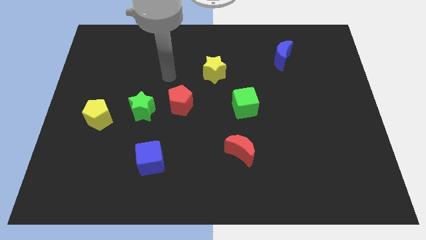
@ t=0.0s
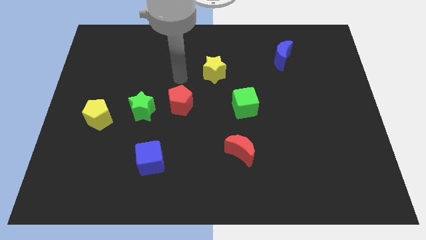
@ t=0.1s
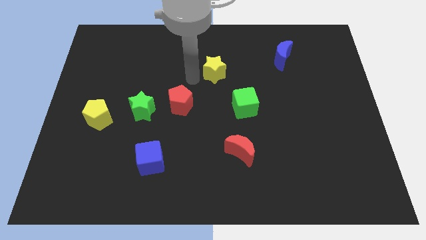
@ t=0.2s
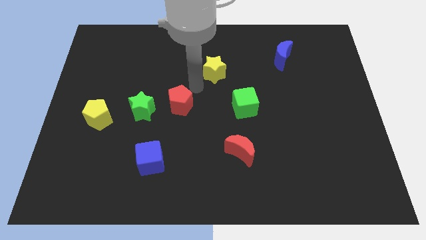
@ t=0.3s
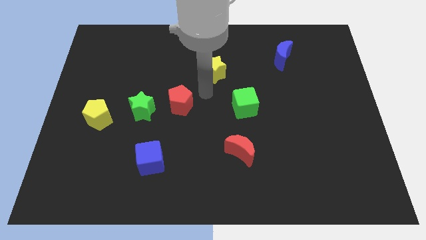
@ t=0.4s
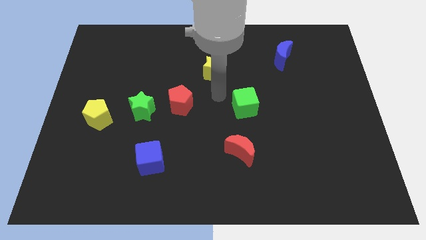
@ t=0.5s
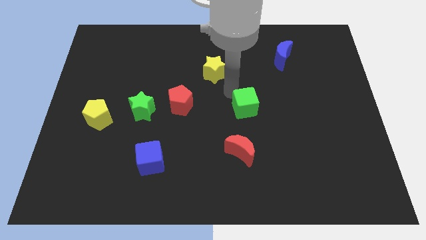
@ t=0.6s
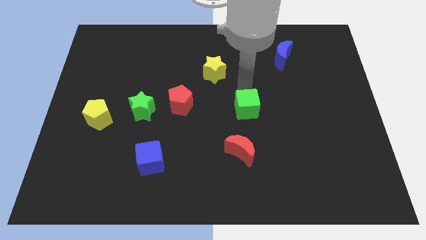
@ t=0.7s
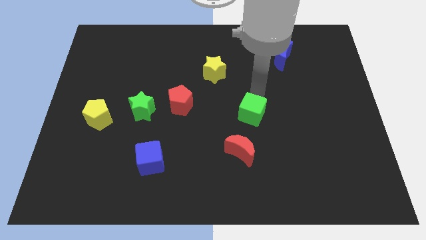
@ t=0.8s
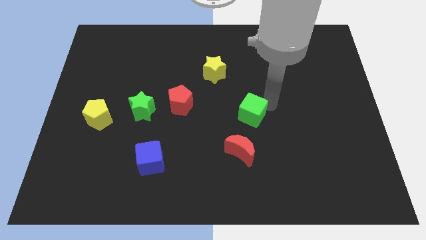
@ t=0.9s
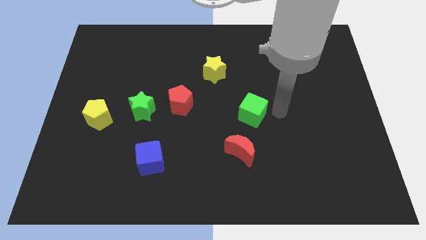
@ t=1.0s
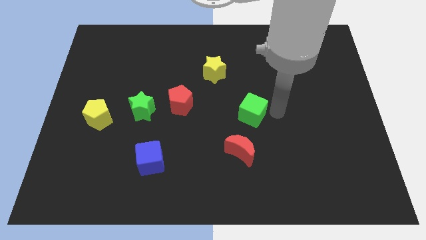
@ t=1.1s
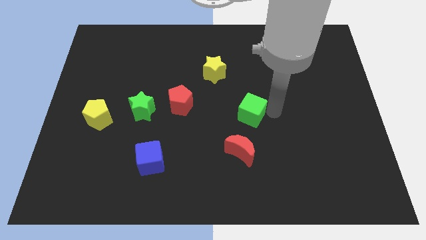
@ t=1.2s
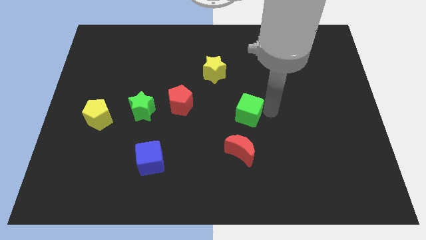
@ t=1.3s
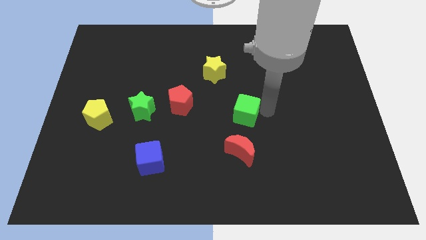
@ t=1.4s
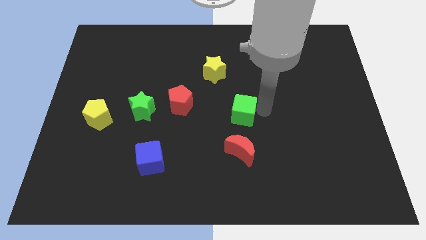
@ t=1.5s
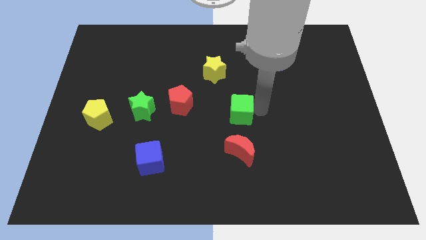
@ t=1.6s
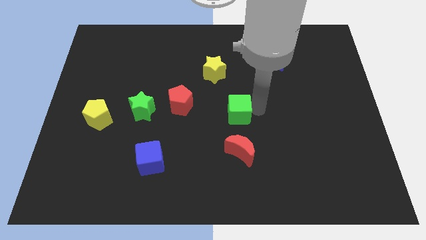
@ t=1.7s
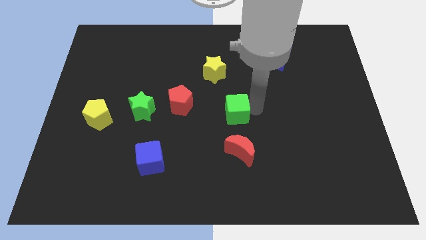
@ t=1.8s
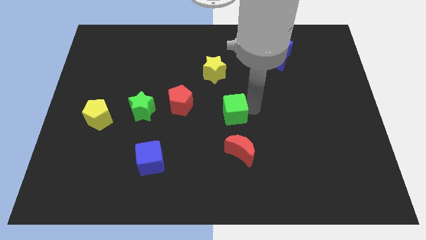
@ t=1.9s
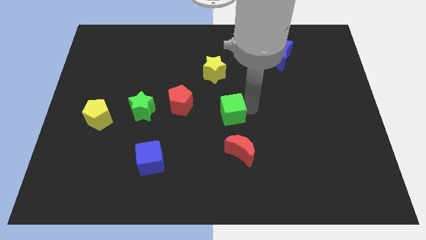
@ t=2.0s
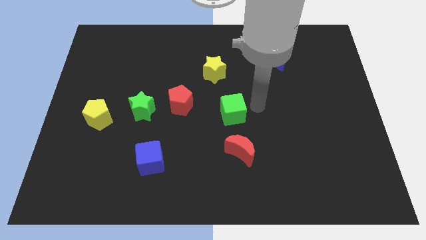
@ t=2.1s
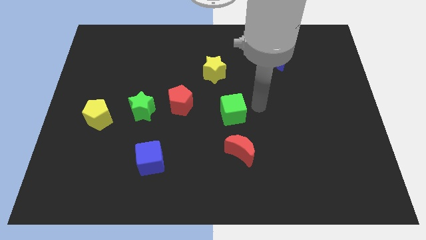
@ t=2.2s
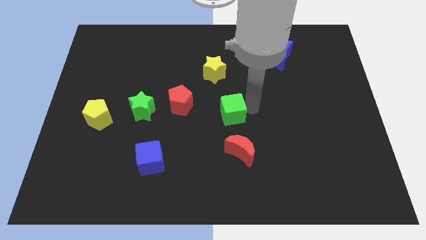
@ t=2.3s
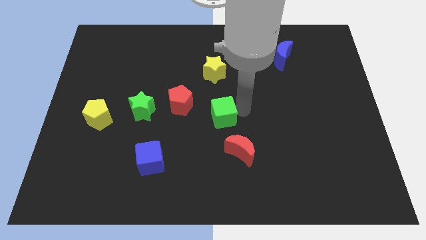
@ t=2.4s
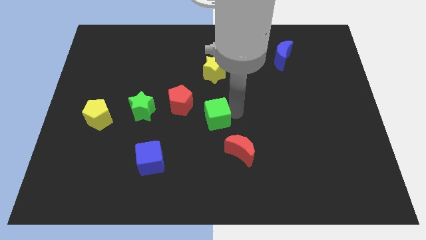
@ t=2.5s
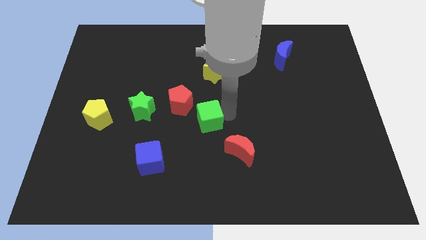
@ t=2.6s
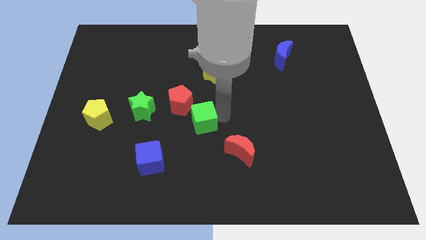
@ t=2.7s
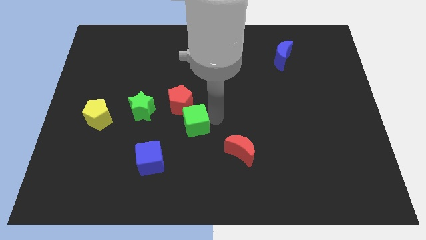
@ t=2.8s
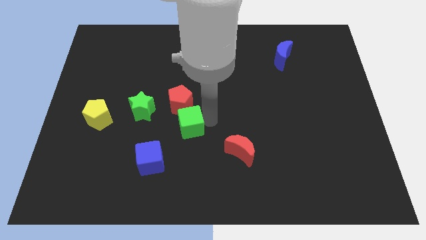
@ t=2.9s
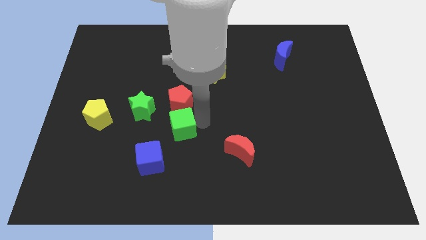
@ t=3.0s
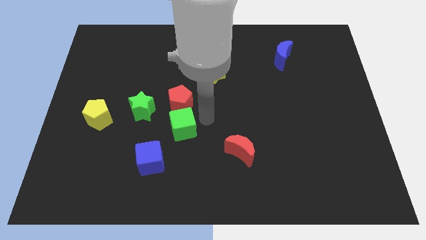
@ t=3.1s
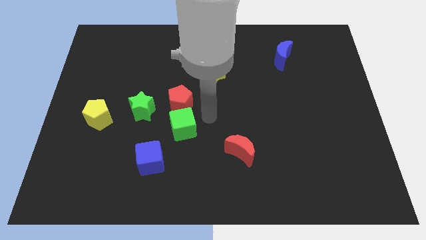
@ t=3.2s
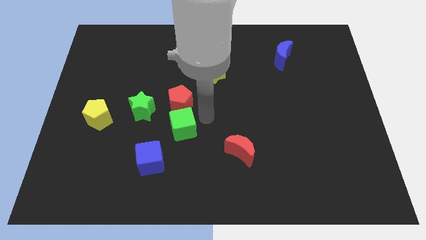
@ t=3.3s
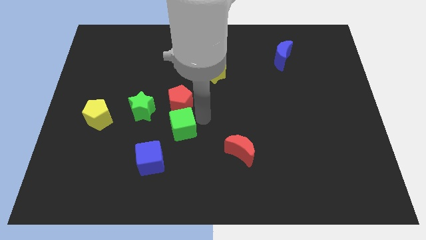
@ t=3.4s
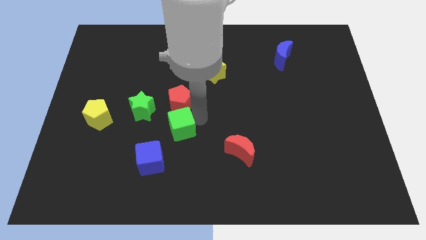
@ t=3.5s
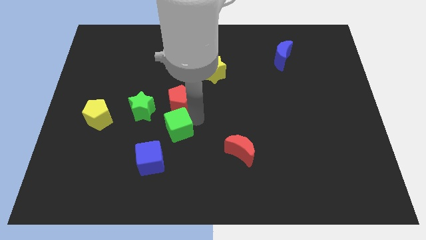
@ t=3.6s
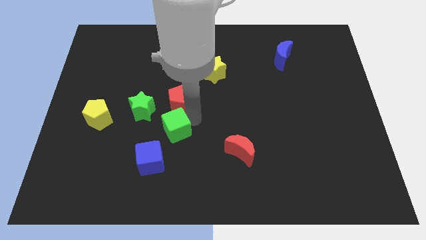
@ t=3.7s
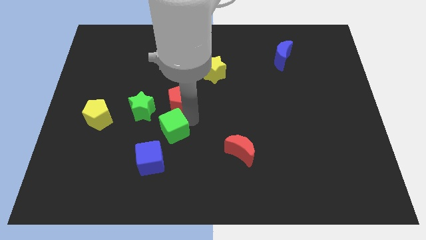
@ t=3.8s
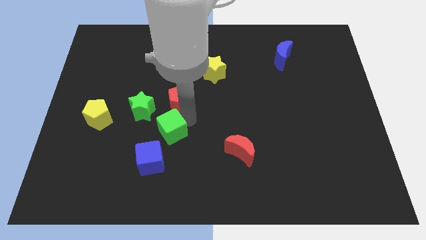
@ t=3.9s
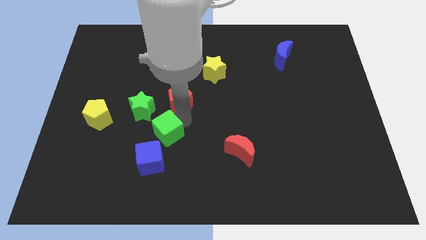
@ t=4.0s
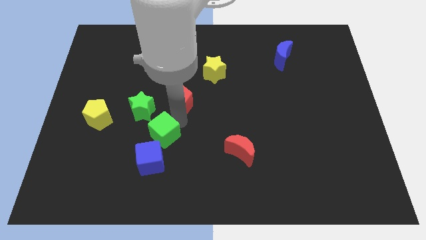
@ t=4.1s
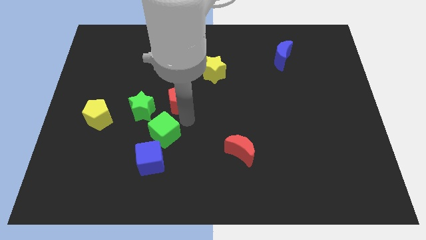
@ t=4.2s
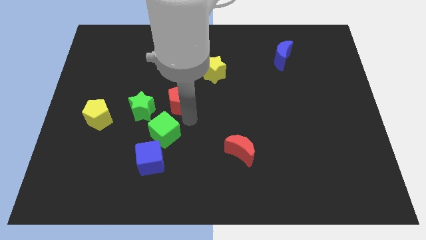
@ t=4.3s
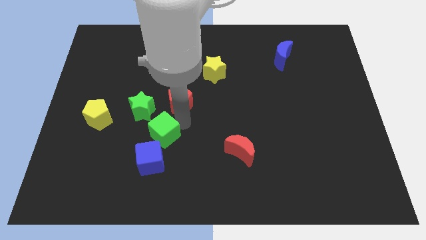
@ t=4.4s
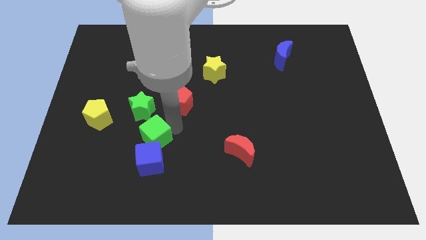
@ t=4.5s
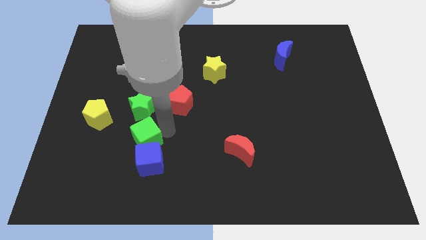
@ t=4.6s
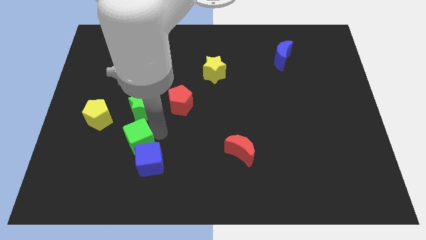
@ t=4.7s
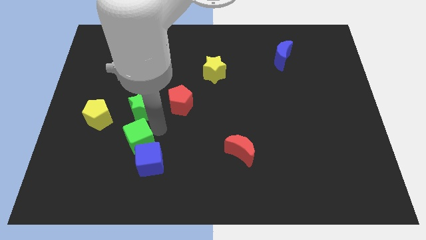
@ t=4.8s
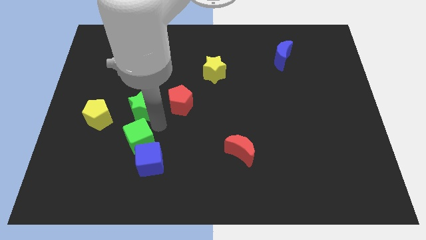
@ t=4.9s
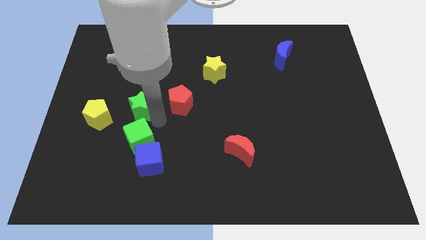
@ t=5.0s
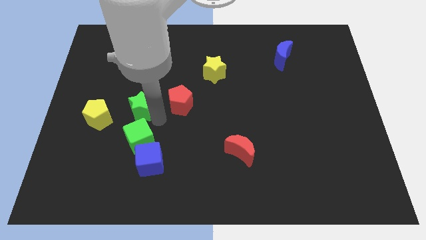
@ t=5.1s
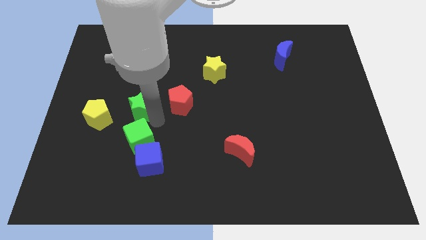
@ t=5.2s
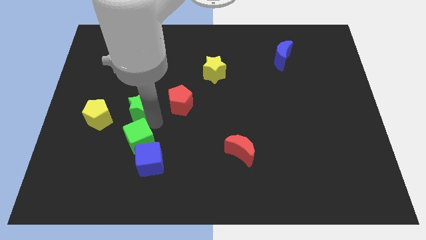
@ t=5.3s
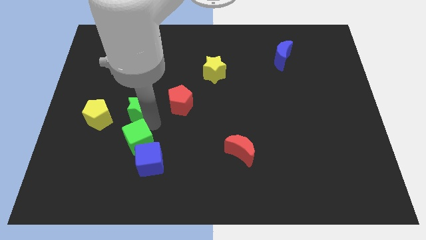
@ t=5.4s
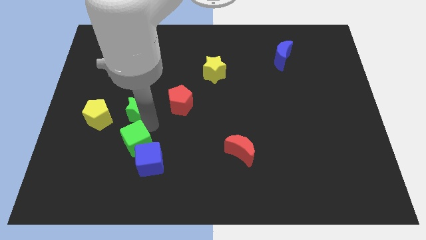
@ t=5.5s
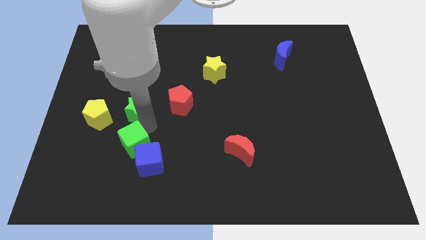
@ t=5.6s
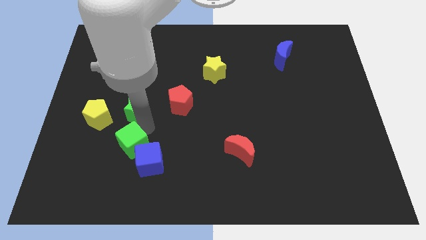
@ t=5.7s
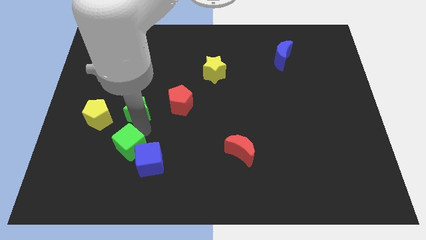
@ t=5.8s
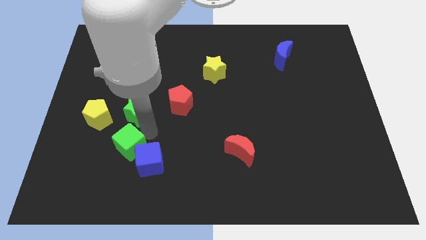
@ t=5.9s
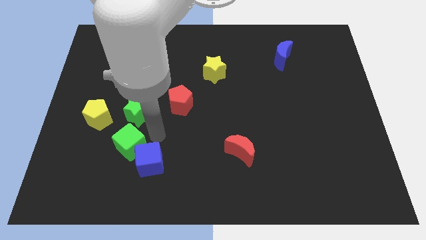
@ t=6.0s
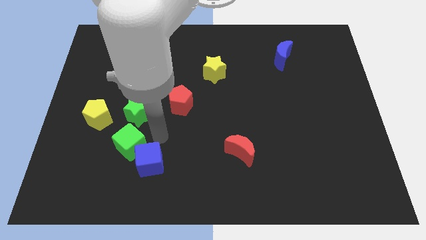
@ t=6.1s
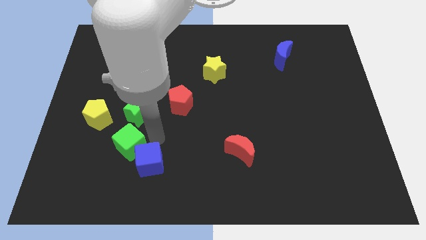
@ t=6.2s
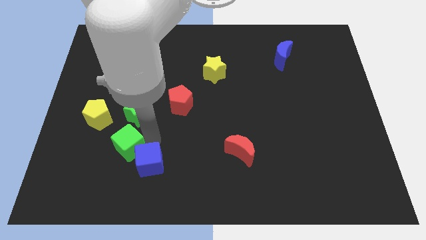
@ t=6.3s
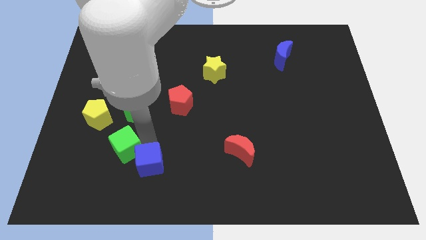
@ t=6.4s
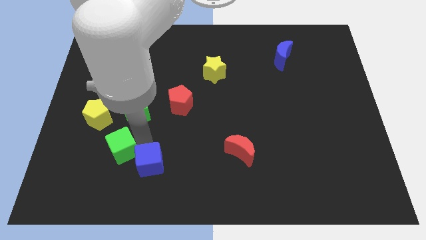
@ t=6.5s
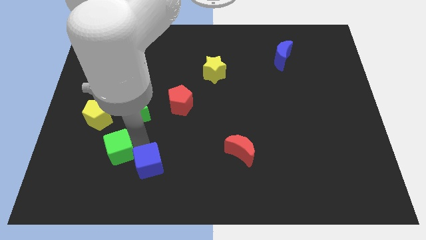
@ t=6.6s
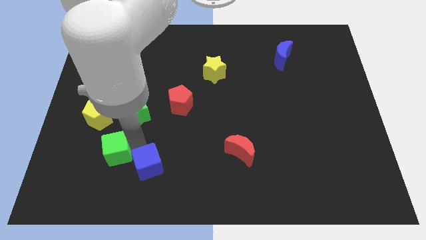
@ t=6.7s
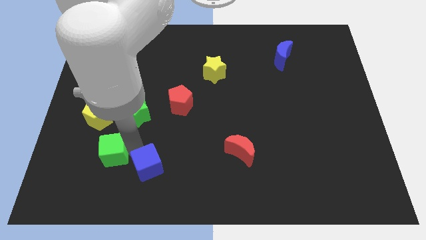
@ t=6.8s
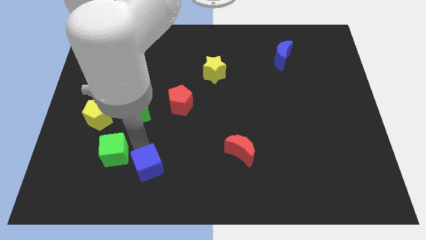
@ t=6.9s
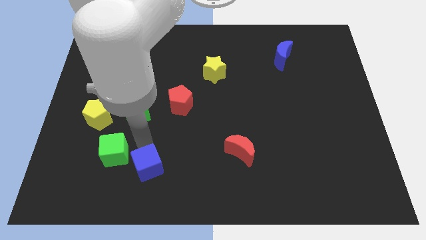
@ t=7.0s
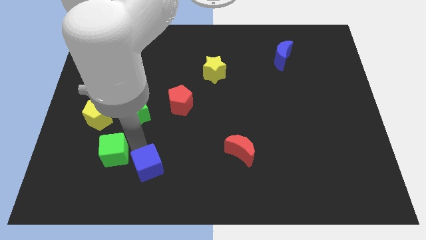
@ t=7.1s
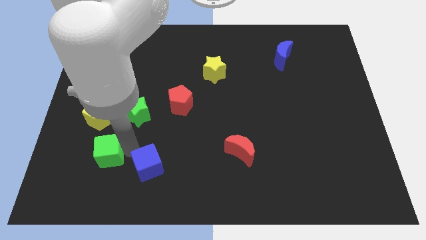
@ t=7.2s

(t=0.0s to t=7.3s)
push the green cube below the yellow pentagon
